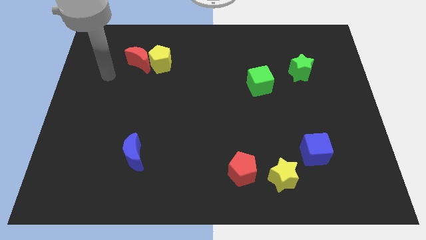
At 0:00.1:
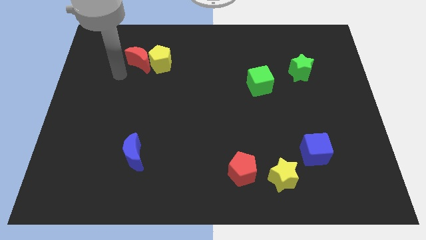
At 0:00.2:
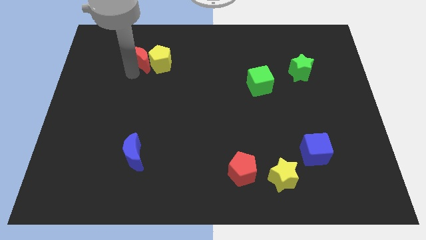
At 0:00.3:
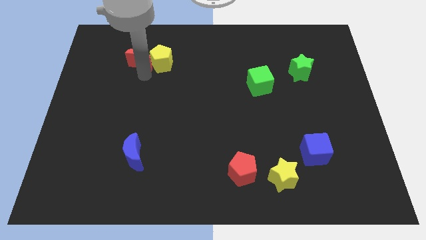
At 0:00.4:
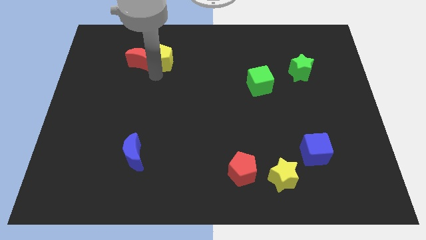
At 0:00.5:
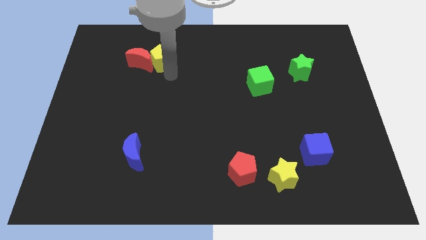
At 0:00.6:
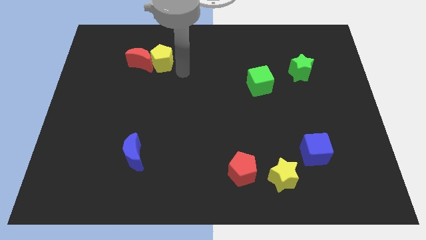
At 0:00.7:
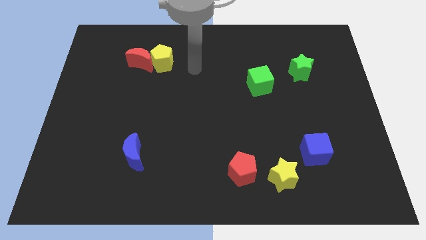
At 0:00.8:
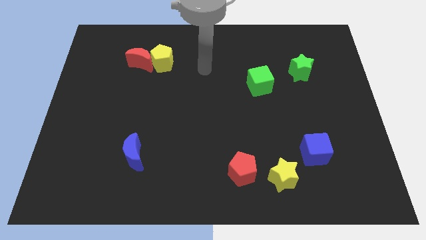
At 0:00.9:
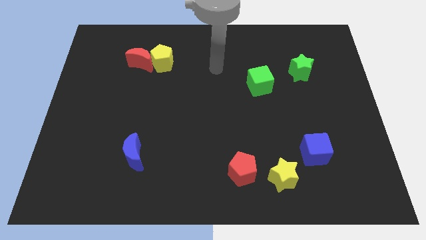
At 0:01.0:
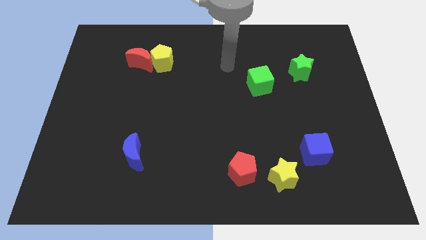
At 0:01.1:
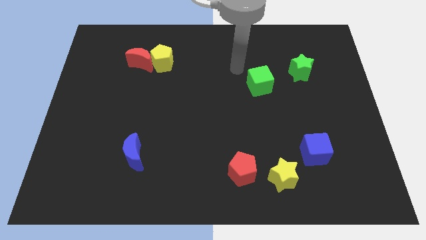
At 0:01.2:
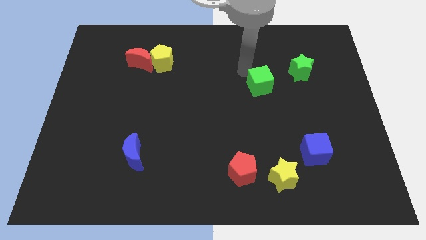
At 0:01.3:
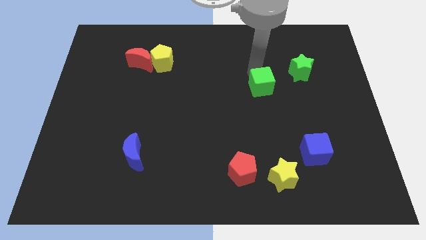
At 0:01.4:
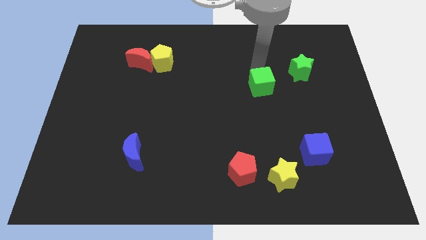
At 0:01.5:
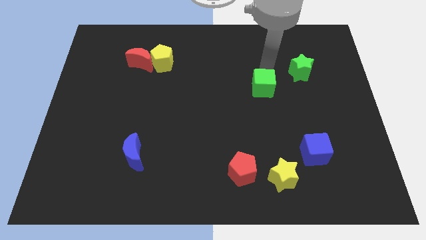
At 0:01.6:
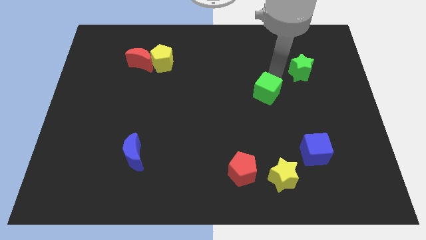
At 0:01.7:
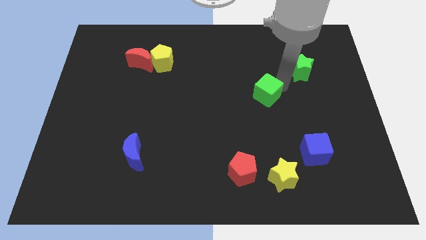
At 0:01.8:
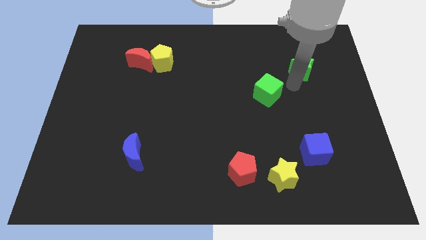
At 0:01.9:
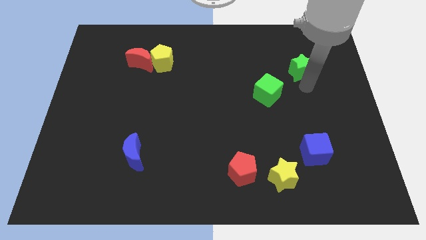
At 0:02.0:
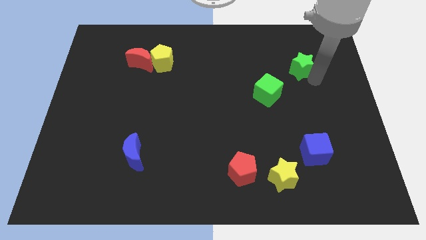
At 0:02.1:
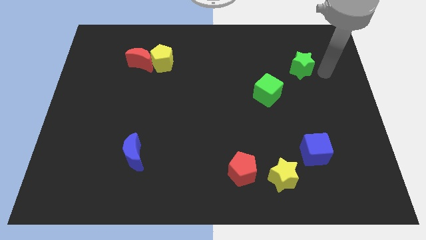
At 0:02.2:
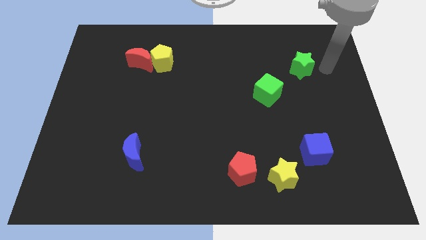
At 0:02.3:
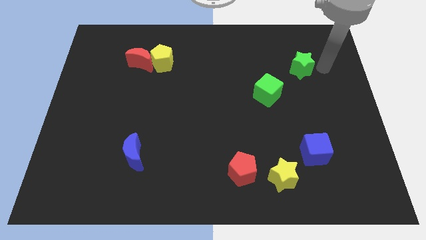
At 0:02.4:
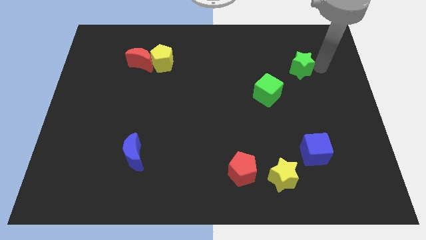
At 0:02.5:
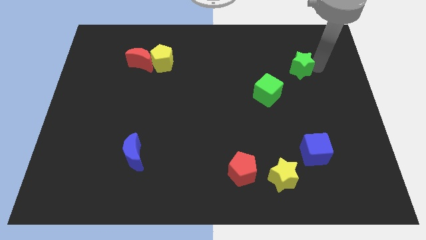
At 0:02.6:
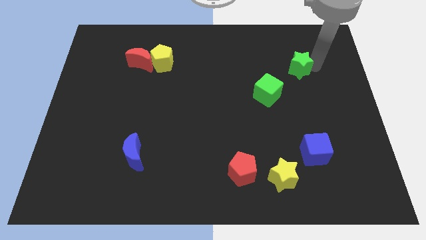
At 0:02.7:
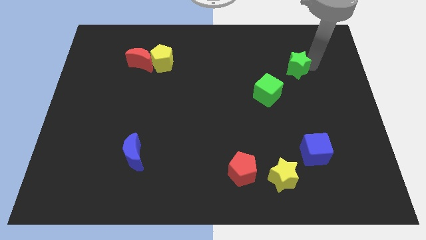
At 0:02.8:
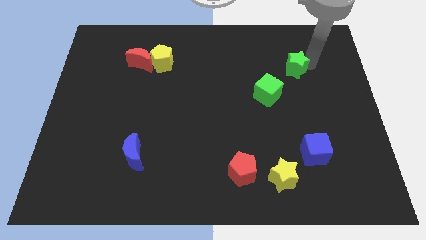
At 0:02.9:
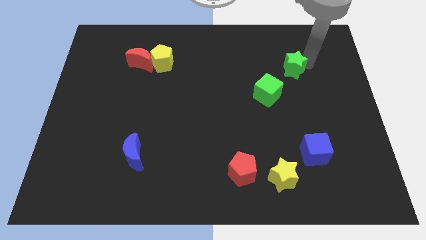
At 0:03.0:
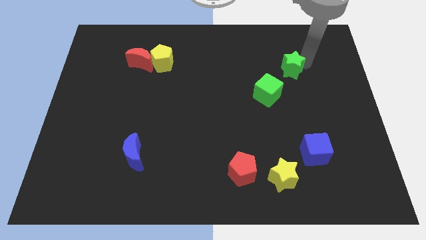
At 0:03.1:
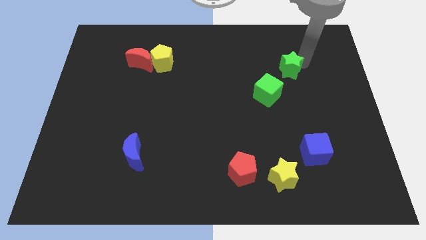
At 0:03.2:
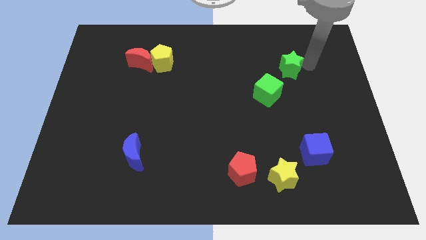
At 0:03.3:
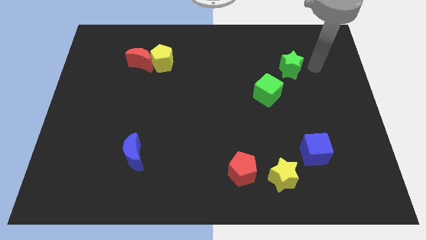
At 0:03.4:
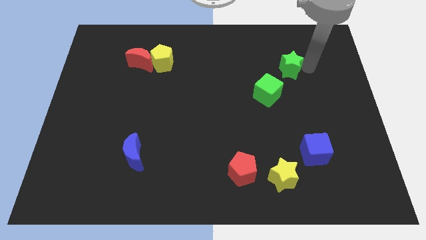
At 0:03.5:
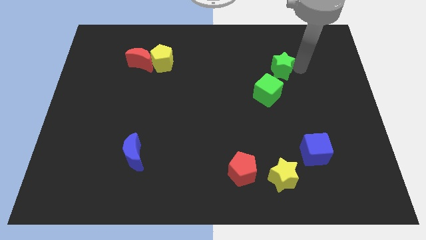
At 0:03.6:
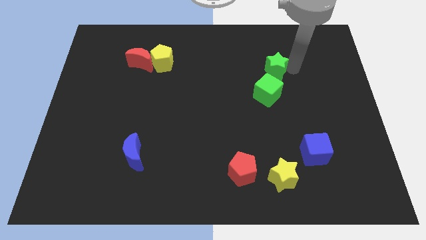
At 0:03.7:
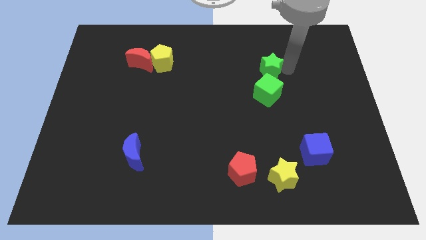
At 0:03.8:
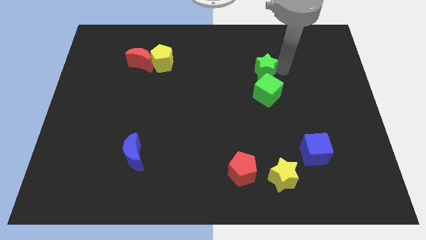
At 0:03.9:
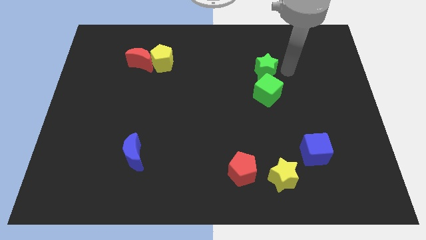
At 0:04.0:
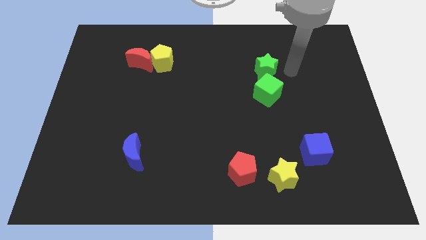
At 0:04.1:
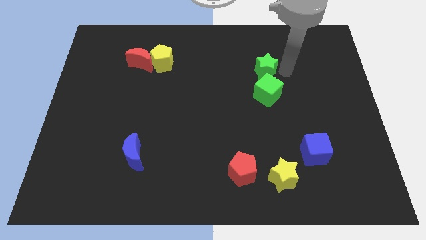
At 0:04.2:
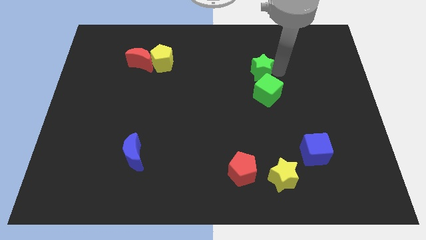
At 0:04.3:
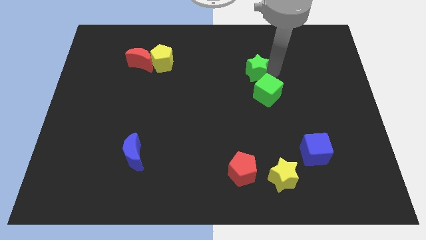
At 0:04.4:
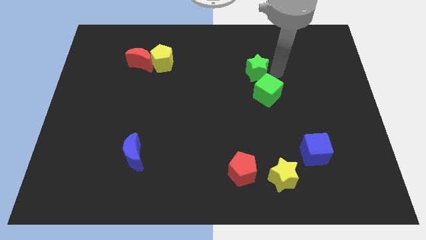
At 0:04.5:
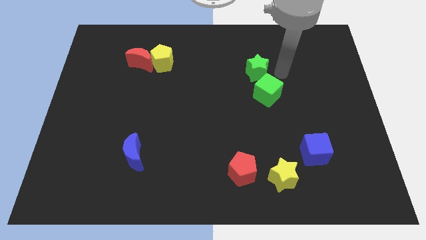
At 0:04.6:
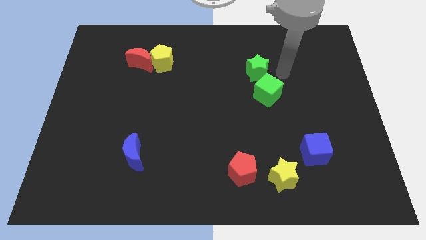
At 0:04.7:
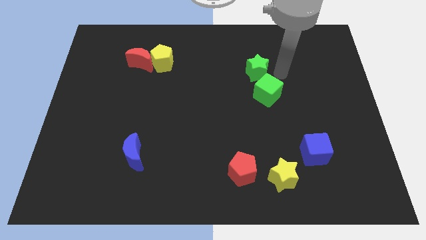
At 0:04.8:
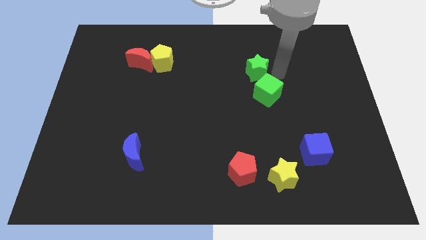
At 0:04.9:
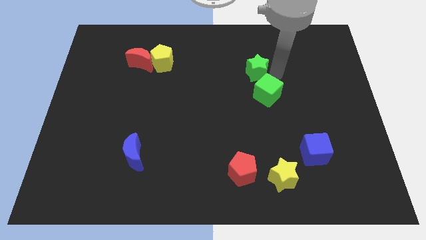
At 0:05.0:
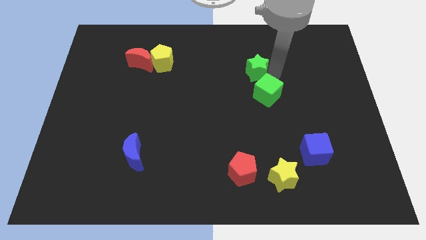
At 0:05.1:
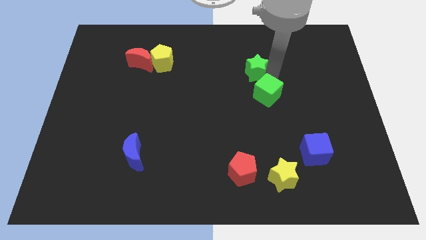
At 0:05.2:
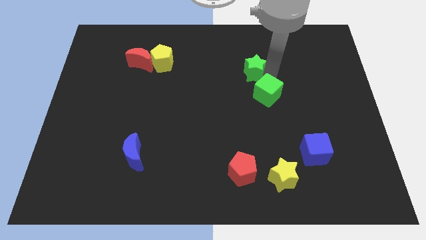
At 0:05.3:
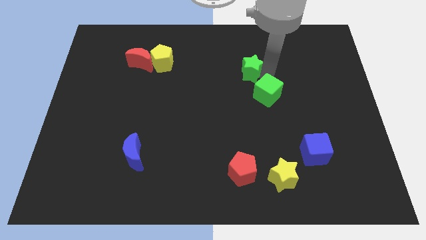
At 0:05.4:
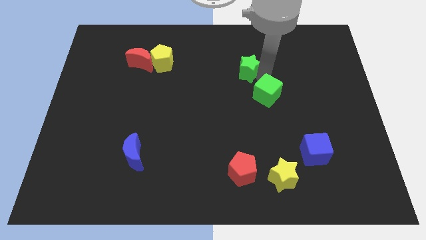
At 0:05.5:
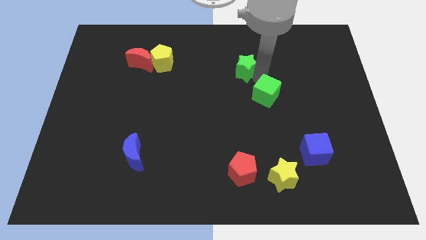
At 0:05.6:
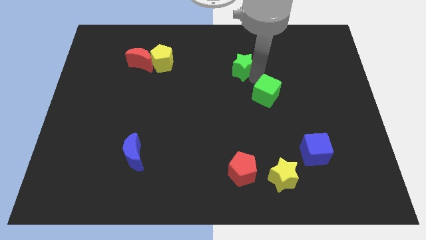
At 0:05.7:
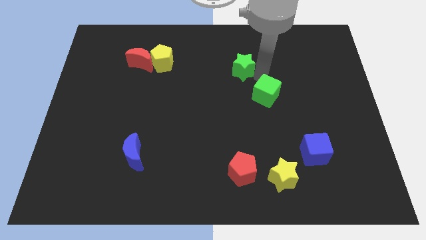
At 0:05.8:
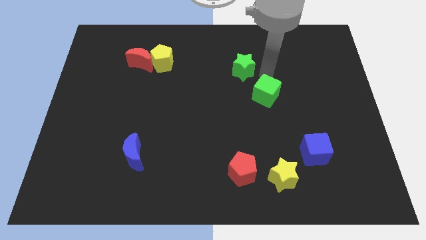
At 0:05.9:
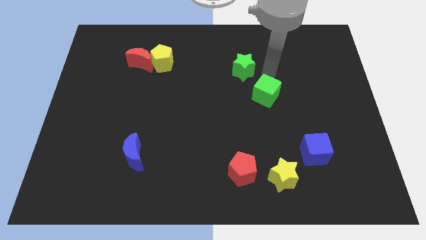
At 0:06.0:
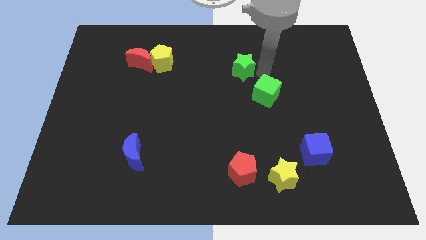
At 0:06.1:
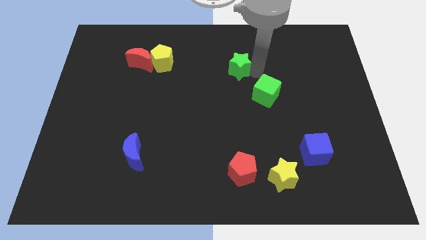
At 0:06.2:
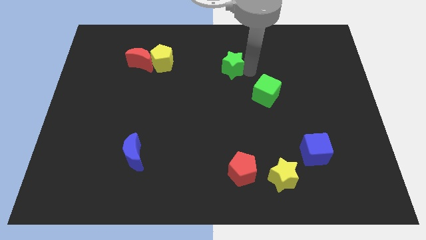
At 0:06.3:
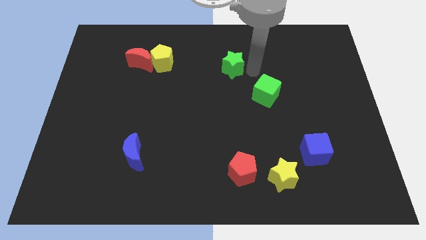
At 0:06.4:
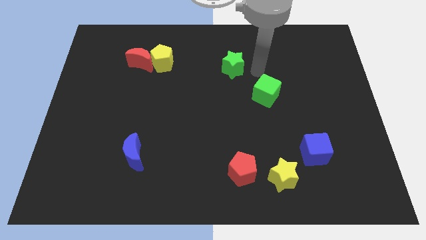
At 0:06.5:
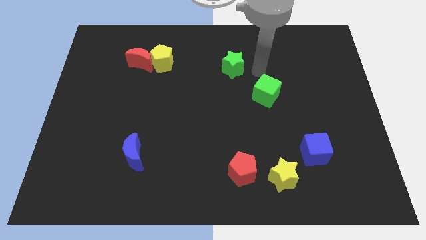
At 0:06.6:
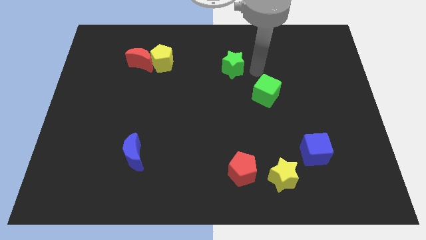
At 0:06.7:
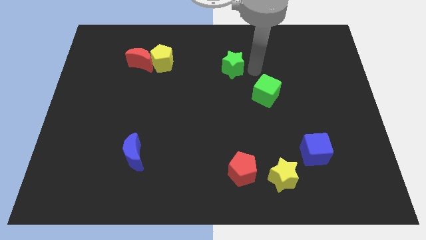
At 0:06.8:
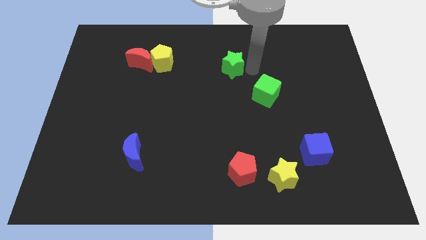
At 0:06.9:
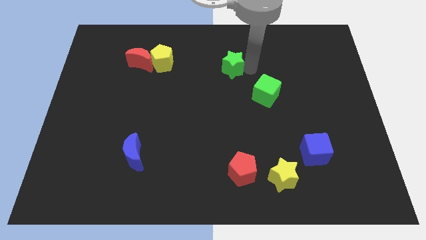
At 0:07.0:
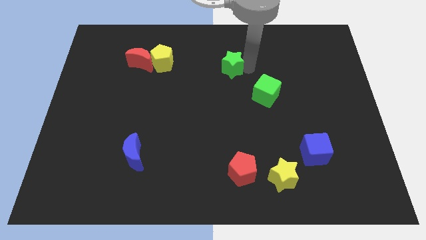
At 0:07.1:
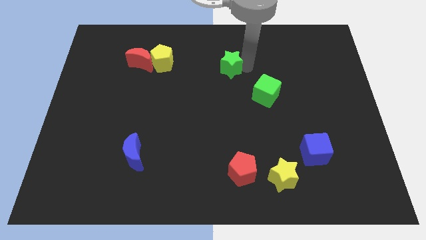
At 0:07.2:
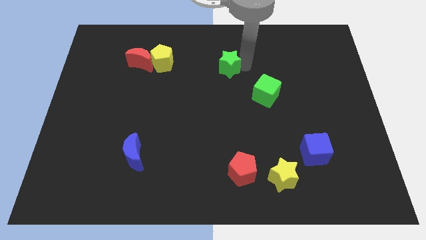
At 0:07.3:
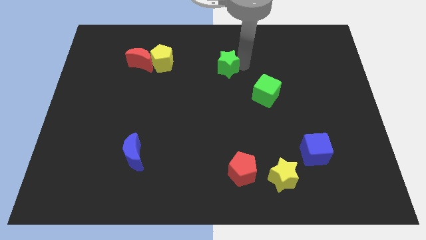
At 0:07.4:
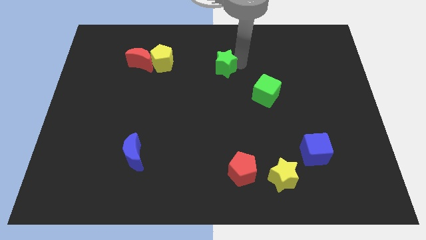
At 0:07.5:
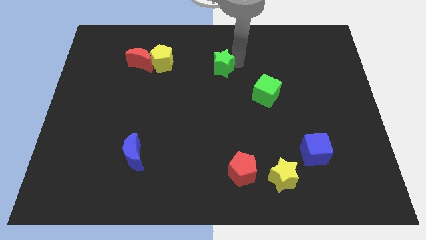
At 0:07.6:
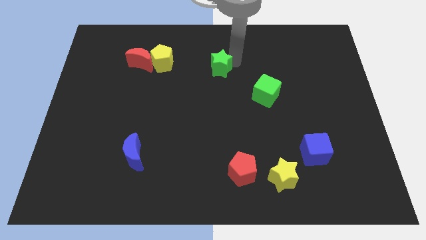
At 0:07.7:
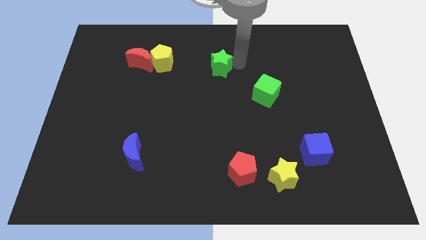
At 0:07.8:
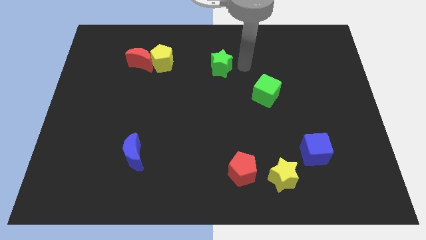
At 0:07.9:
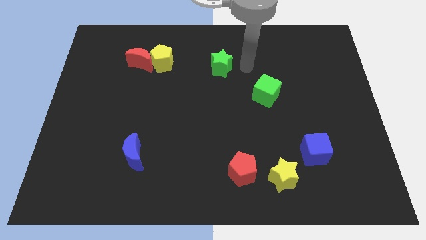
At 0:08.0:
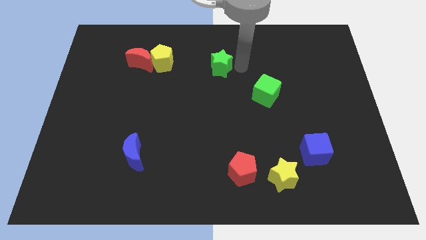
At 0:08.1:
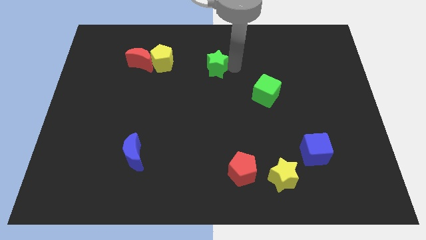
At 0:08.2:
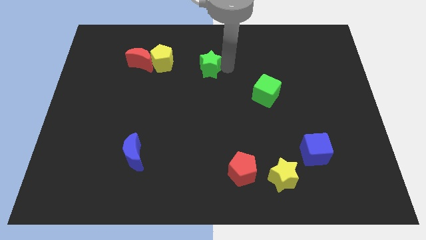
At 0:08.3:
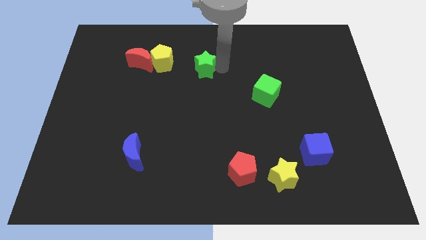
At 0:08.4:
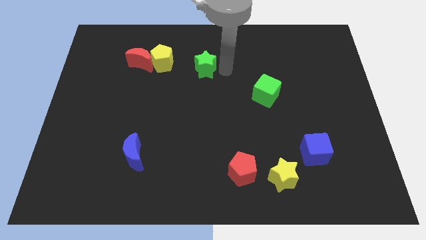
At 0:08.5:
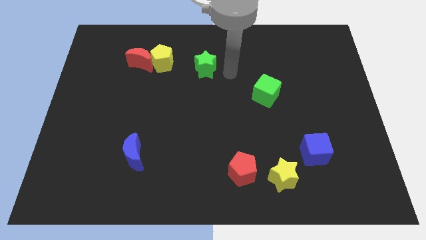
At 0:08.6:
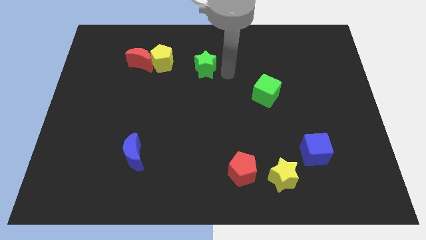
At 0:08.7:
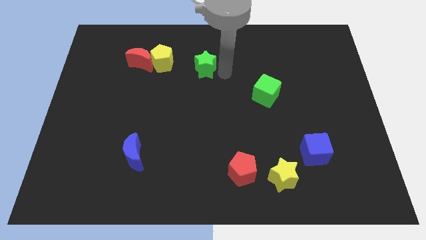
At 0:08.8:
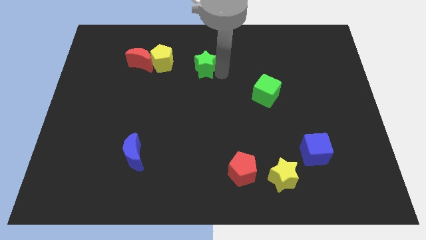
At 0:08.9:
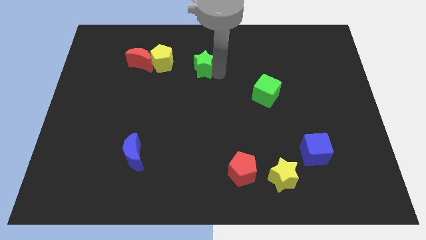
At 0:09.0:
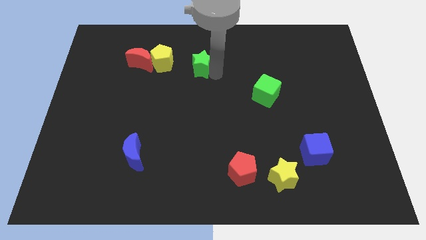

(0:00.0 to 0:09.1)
put the green star right of the red moon
